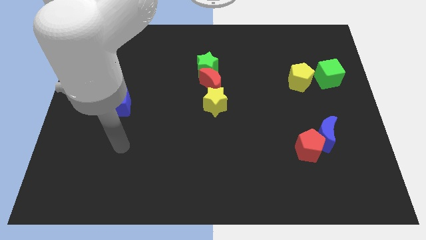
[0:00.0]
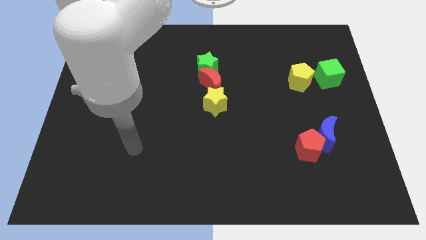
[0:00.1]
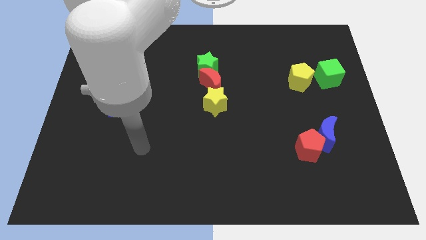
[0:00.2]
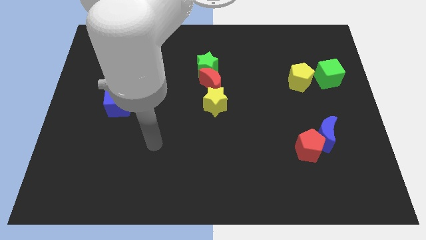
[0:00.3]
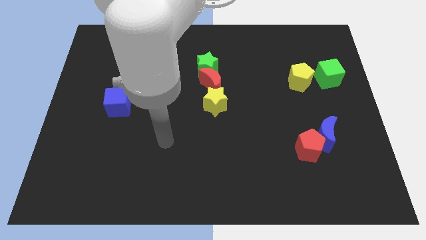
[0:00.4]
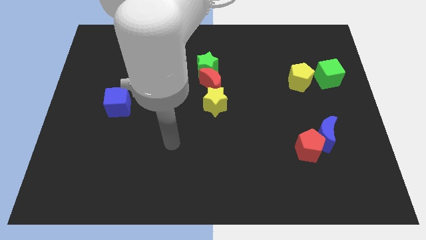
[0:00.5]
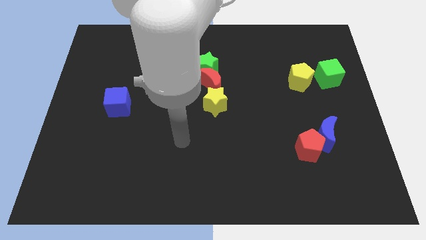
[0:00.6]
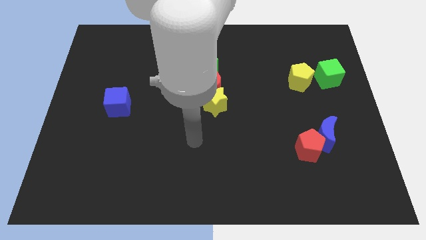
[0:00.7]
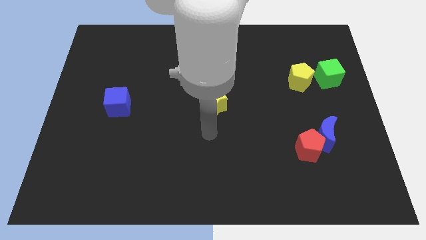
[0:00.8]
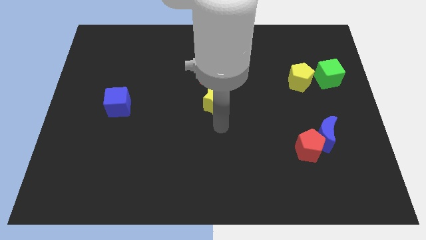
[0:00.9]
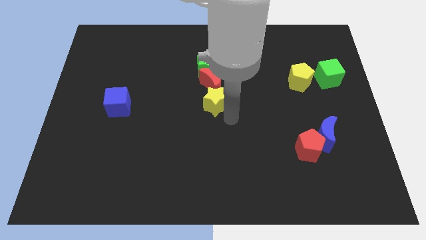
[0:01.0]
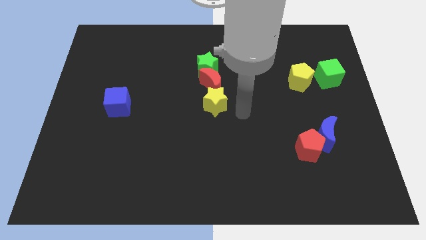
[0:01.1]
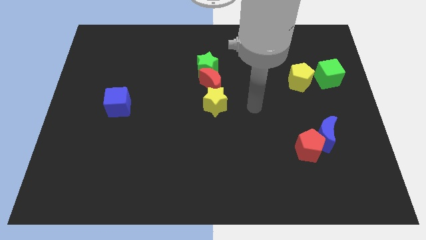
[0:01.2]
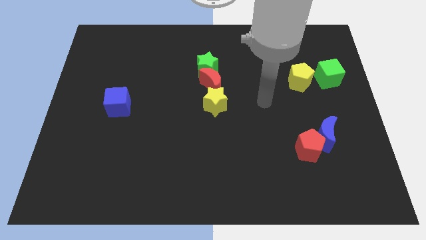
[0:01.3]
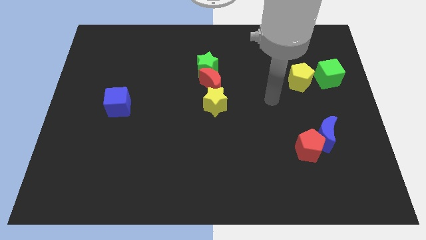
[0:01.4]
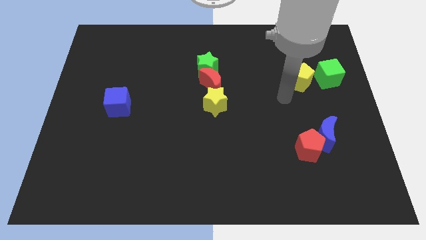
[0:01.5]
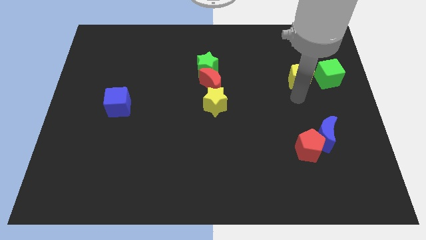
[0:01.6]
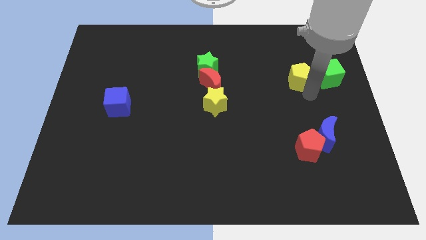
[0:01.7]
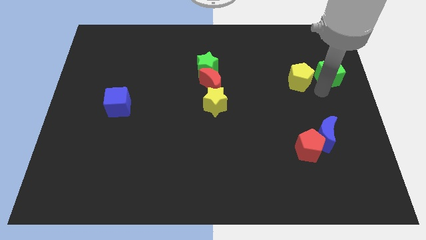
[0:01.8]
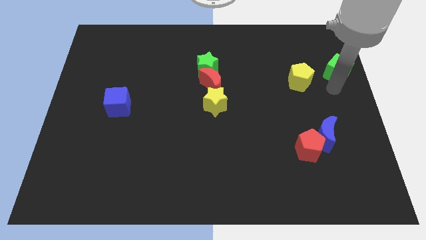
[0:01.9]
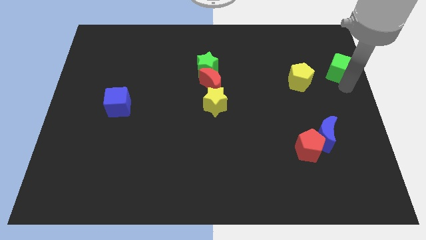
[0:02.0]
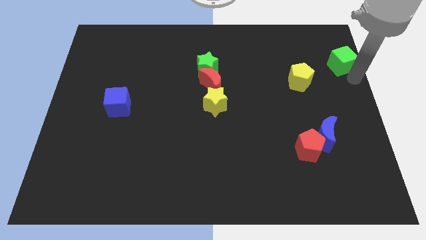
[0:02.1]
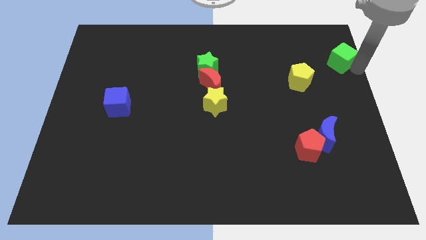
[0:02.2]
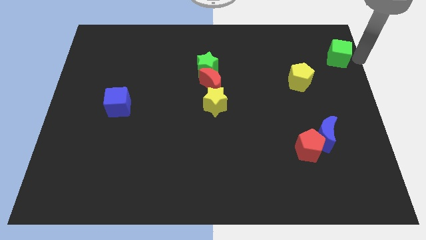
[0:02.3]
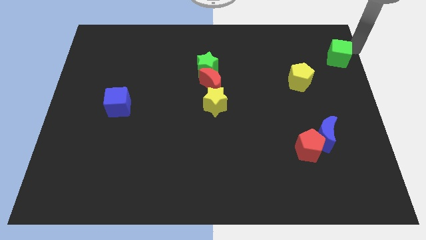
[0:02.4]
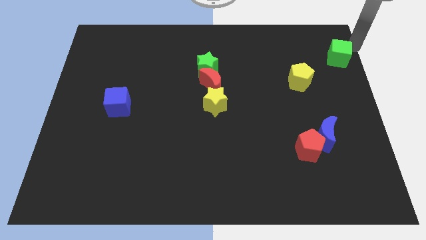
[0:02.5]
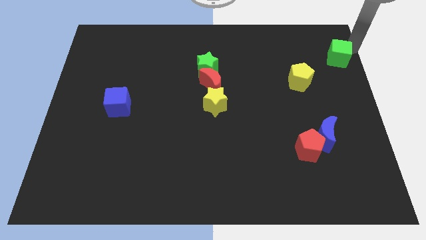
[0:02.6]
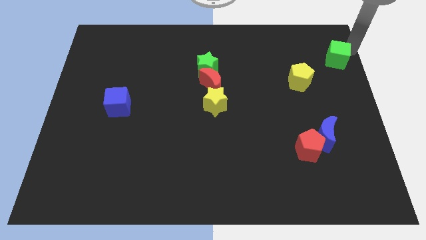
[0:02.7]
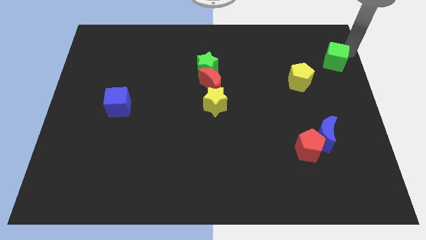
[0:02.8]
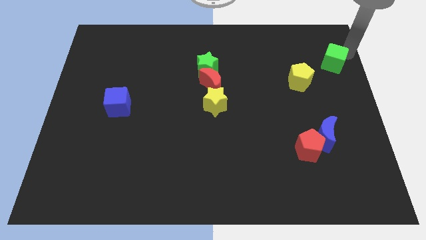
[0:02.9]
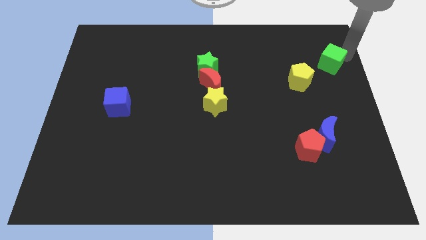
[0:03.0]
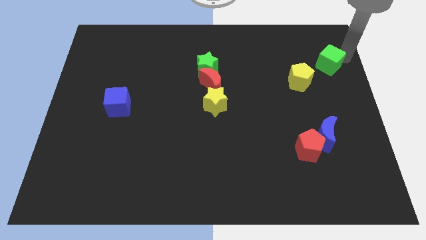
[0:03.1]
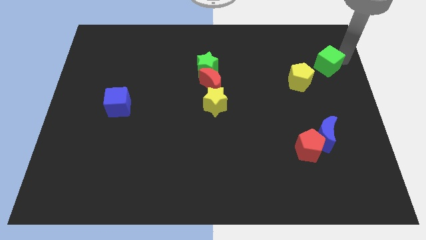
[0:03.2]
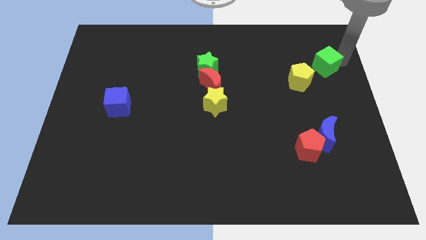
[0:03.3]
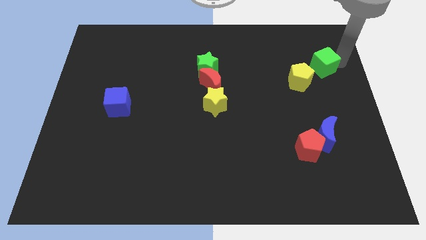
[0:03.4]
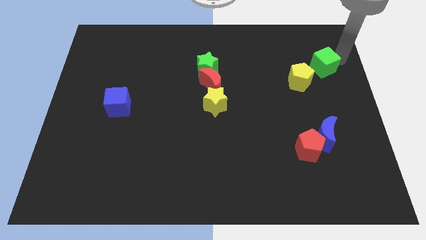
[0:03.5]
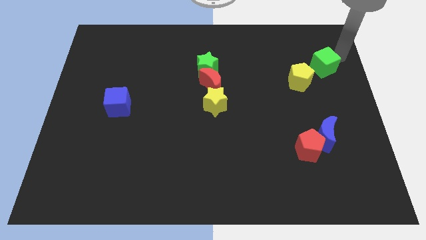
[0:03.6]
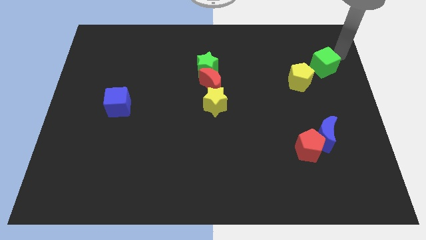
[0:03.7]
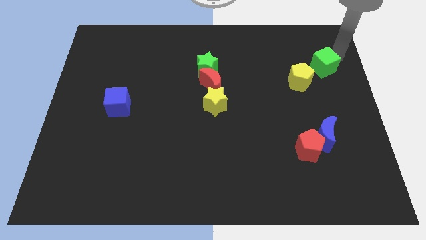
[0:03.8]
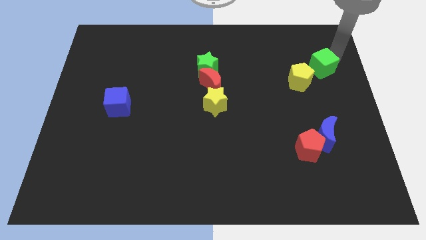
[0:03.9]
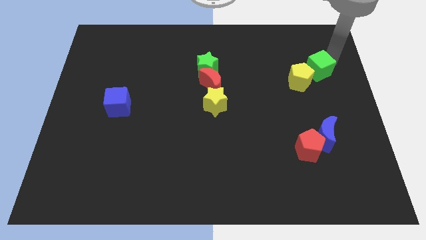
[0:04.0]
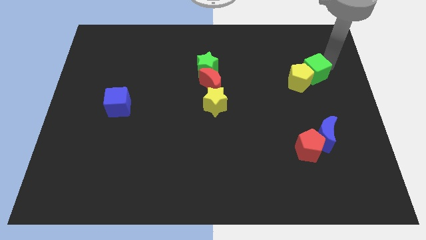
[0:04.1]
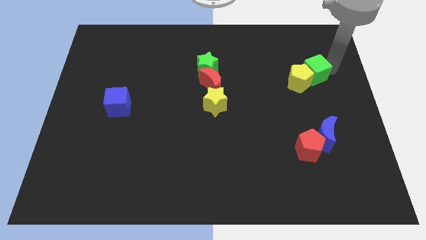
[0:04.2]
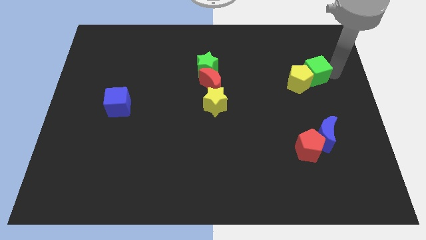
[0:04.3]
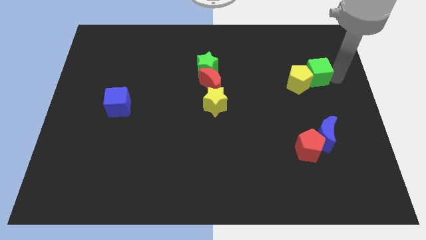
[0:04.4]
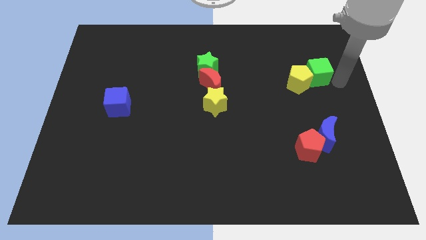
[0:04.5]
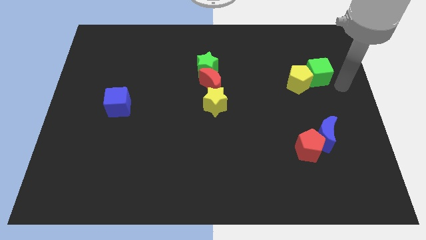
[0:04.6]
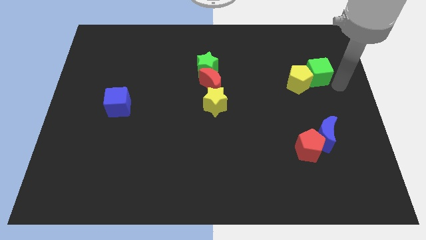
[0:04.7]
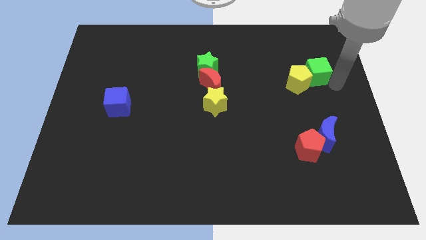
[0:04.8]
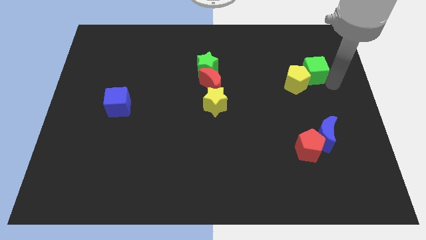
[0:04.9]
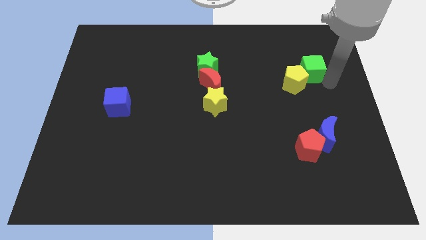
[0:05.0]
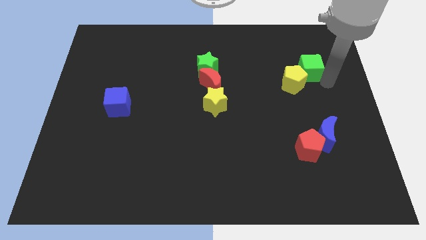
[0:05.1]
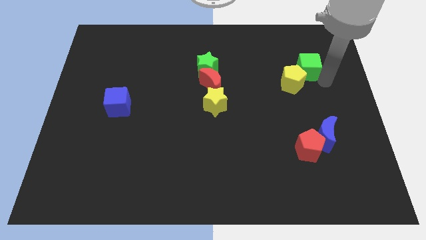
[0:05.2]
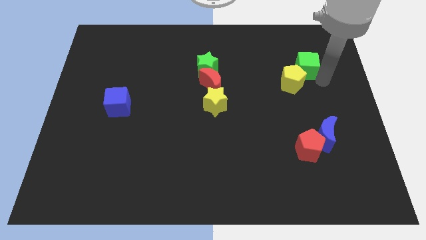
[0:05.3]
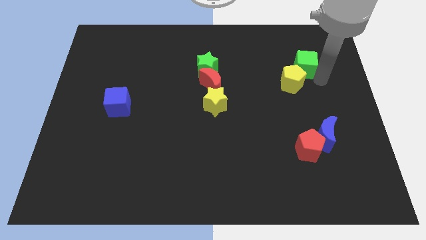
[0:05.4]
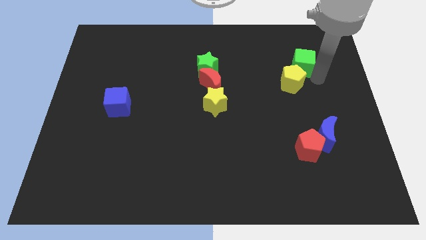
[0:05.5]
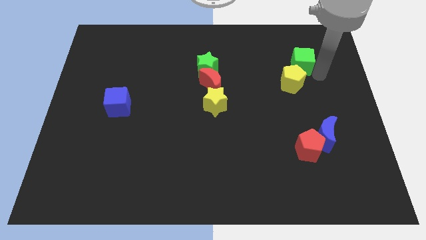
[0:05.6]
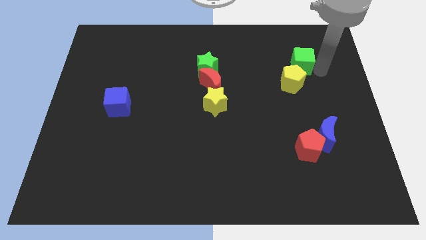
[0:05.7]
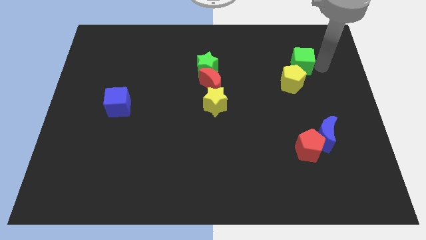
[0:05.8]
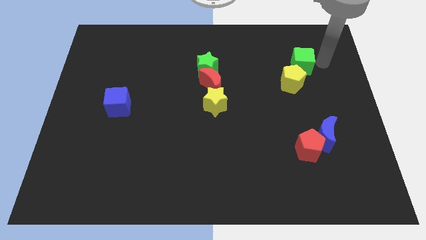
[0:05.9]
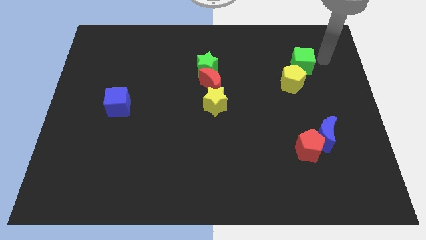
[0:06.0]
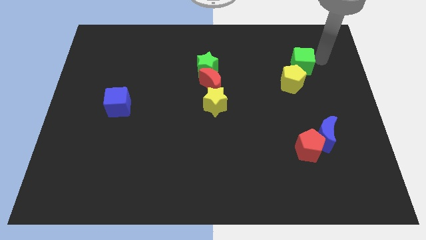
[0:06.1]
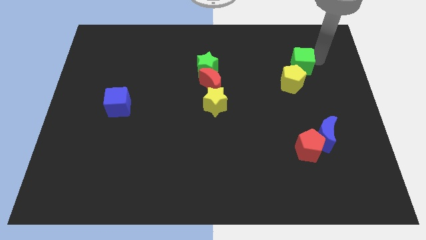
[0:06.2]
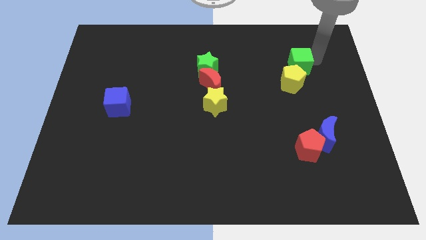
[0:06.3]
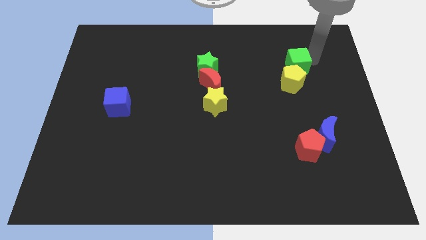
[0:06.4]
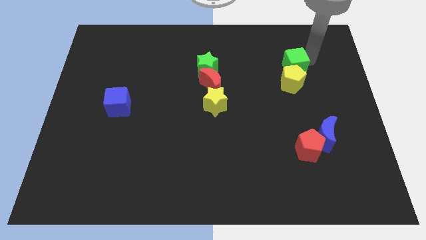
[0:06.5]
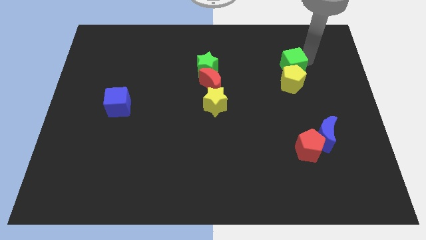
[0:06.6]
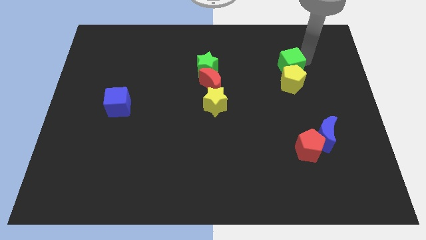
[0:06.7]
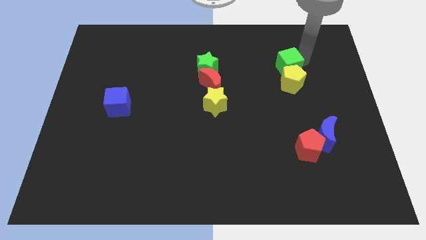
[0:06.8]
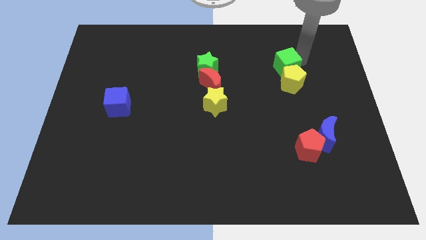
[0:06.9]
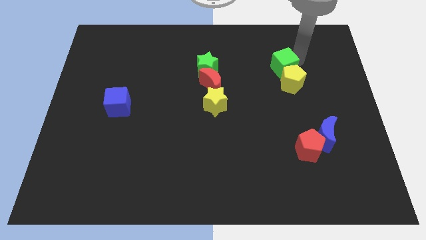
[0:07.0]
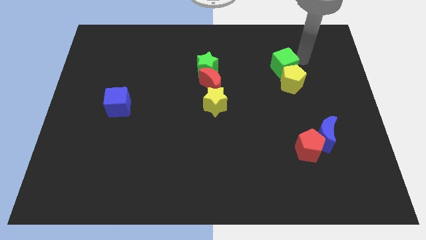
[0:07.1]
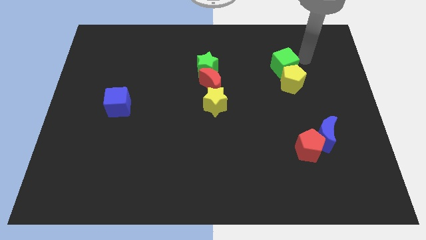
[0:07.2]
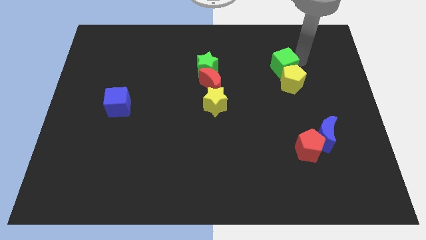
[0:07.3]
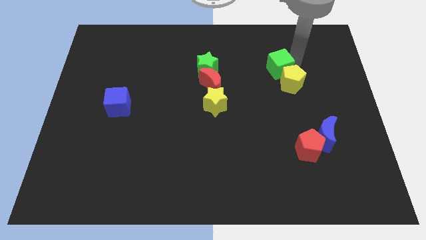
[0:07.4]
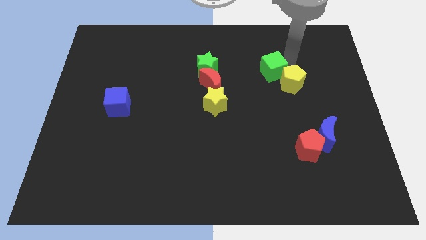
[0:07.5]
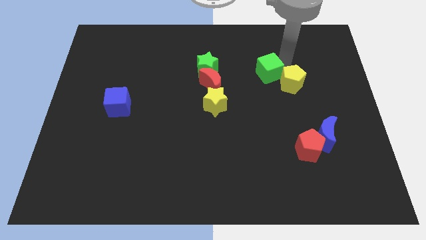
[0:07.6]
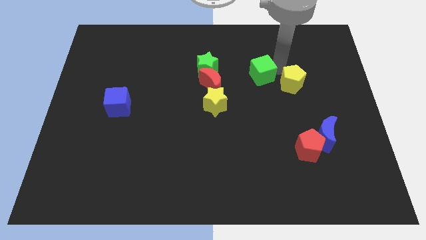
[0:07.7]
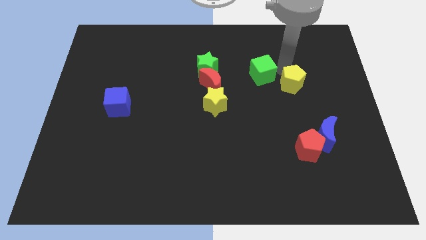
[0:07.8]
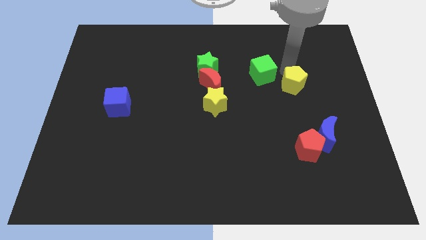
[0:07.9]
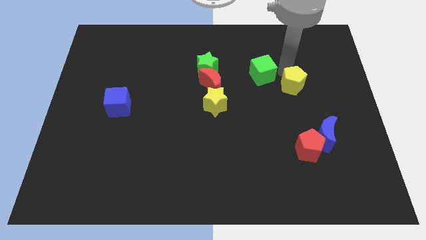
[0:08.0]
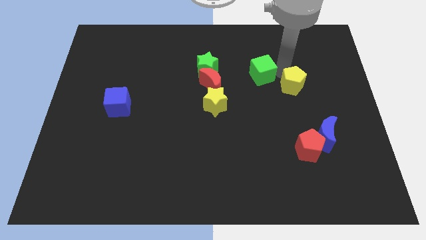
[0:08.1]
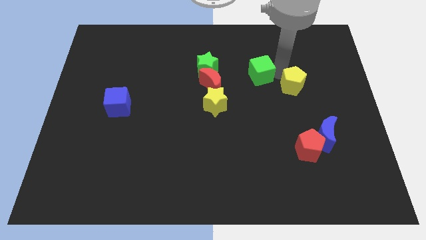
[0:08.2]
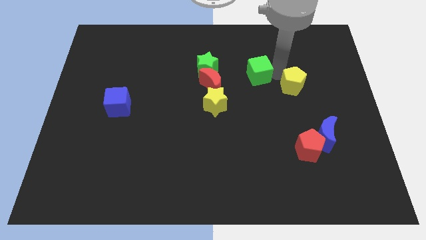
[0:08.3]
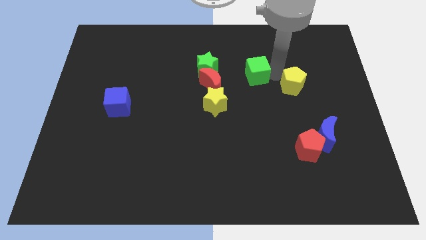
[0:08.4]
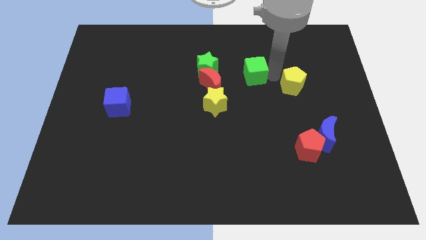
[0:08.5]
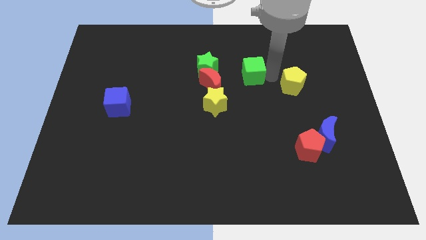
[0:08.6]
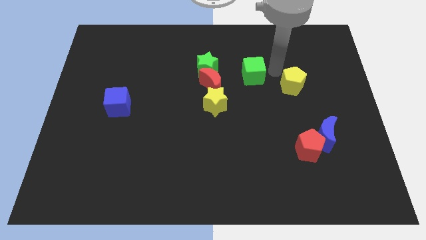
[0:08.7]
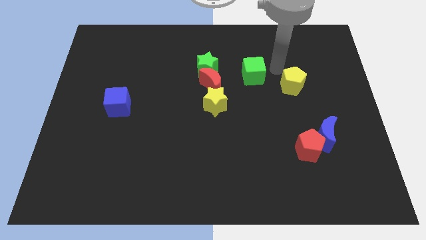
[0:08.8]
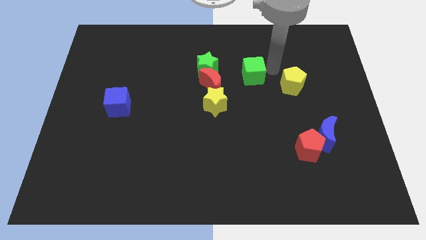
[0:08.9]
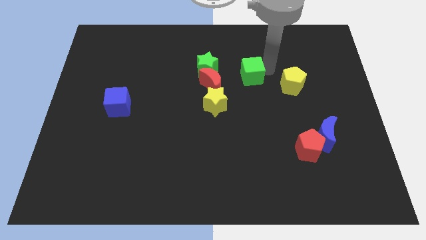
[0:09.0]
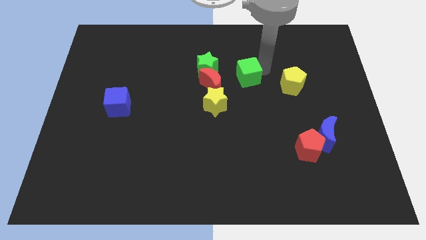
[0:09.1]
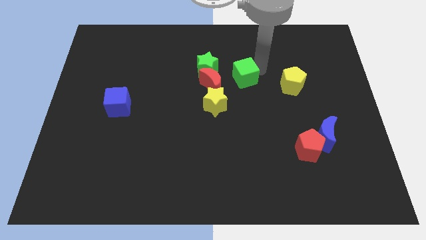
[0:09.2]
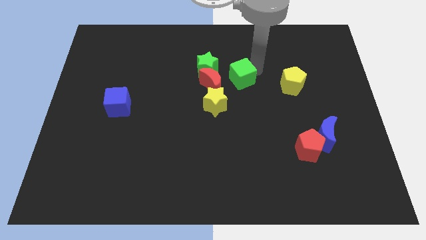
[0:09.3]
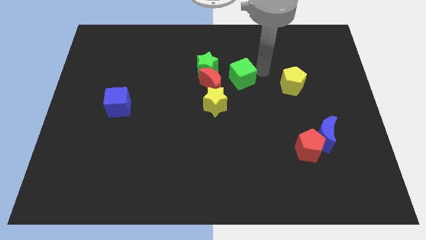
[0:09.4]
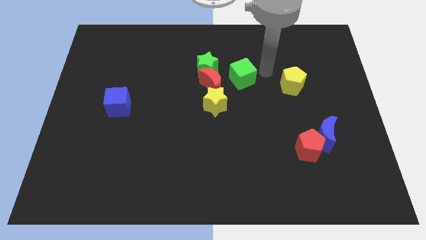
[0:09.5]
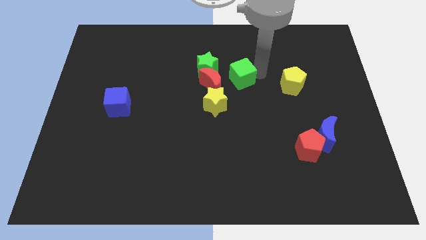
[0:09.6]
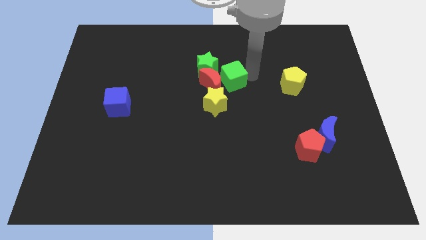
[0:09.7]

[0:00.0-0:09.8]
push the green cube next to the red moon
